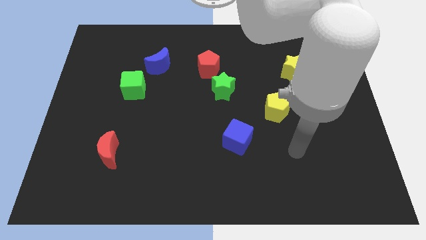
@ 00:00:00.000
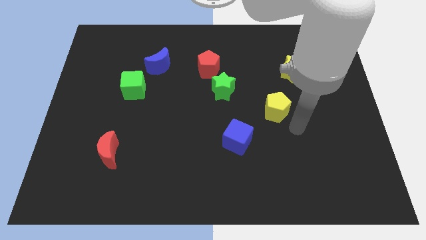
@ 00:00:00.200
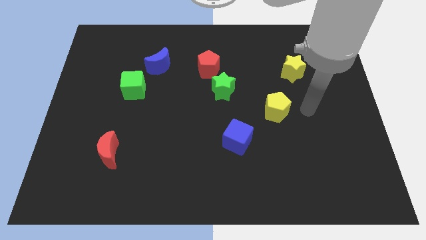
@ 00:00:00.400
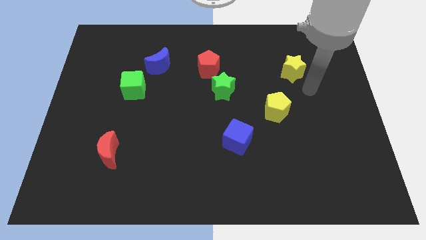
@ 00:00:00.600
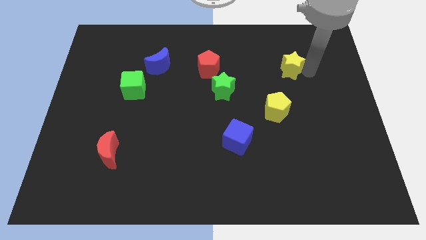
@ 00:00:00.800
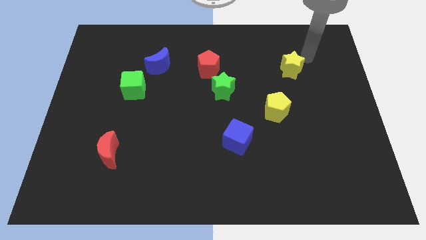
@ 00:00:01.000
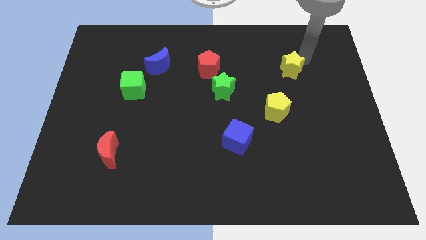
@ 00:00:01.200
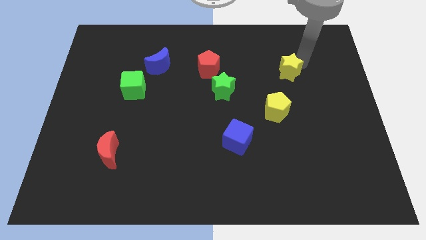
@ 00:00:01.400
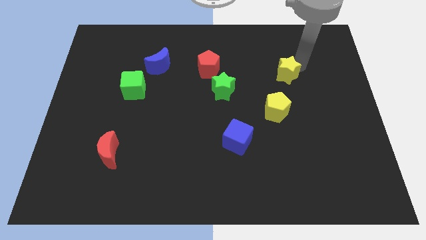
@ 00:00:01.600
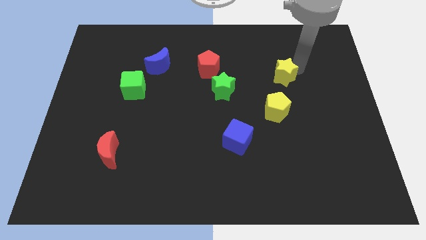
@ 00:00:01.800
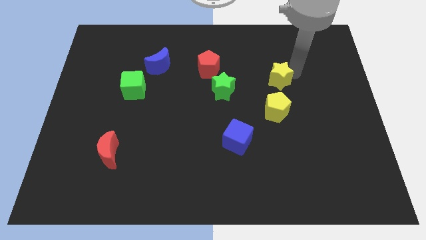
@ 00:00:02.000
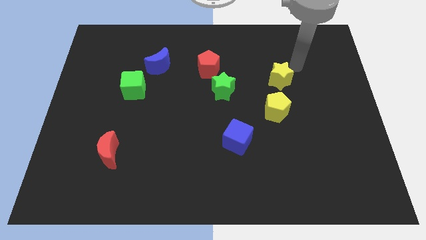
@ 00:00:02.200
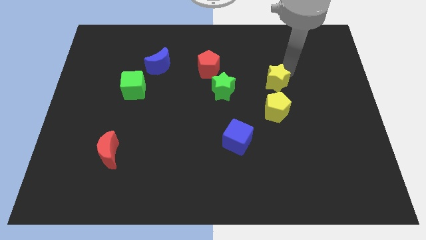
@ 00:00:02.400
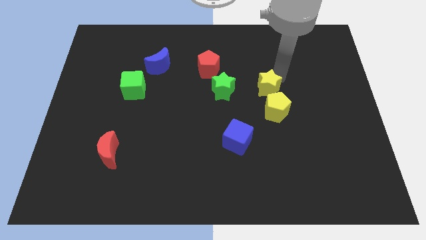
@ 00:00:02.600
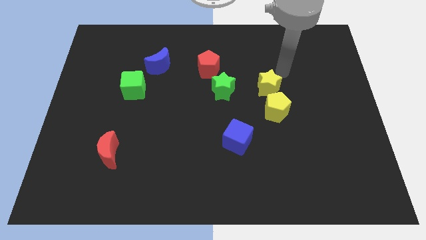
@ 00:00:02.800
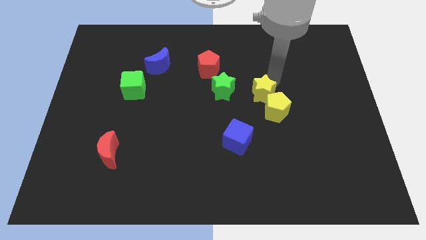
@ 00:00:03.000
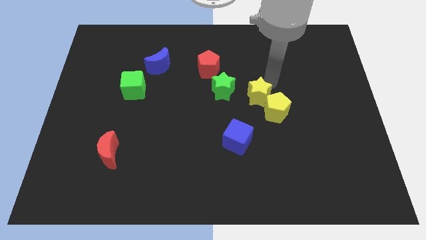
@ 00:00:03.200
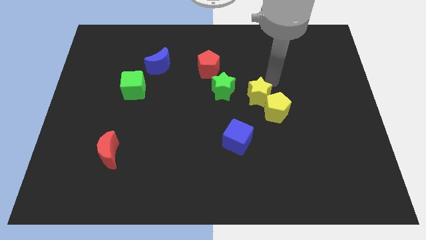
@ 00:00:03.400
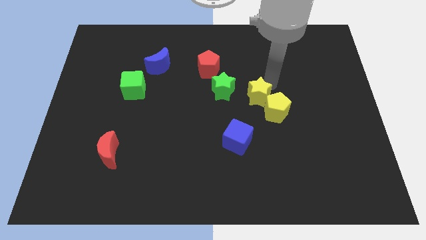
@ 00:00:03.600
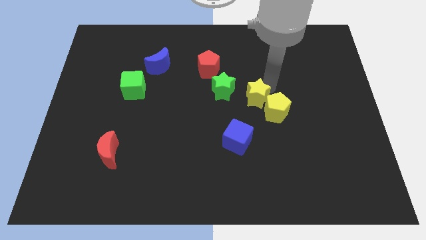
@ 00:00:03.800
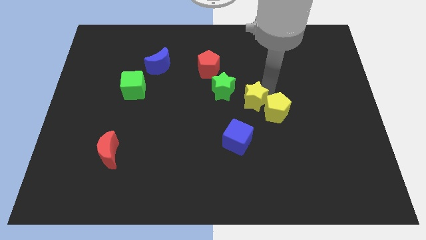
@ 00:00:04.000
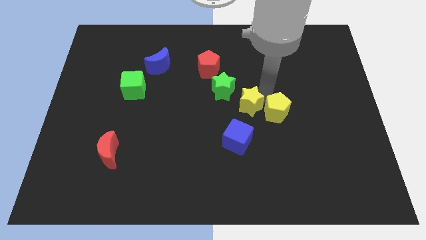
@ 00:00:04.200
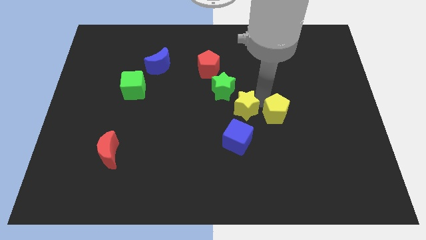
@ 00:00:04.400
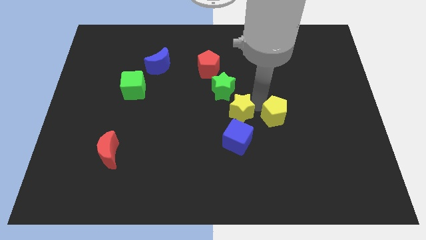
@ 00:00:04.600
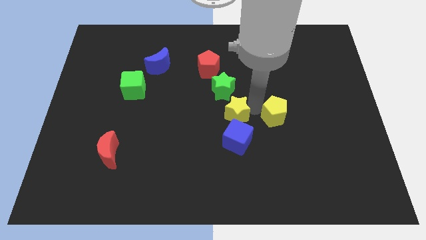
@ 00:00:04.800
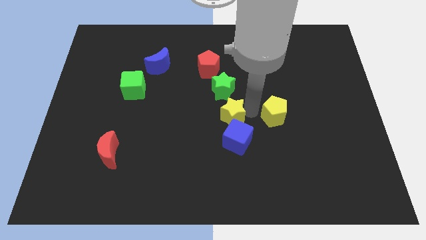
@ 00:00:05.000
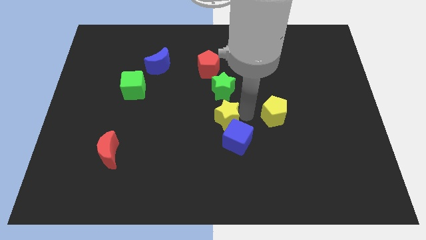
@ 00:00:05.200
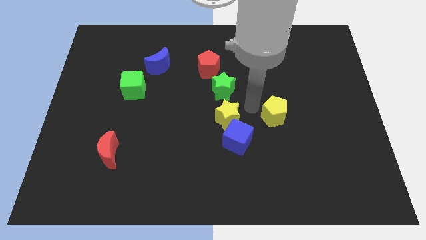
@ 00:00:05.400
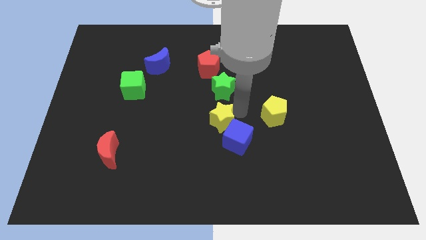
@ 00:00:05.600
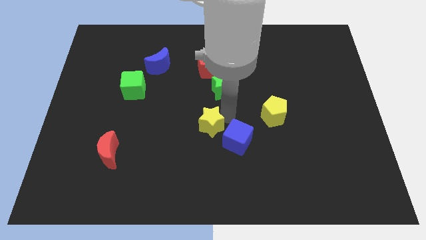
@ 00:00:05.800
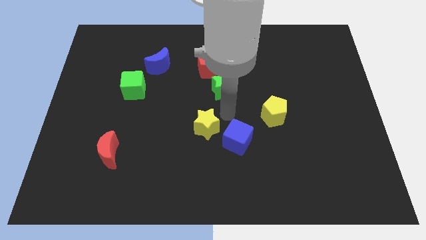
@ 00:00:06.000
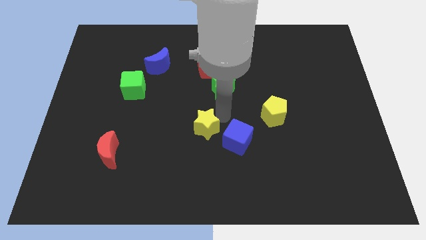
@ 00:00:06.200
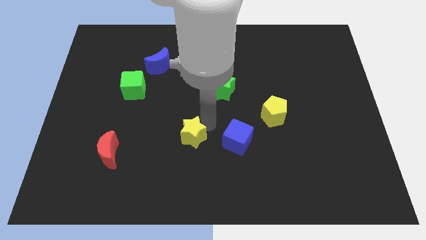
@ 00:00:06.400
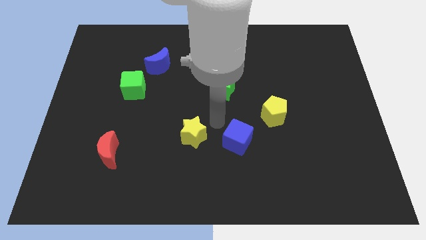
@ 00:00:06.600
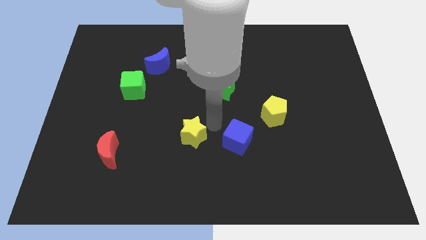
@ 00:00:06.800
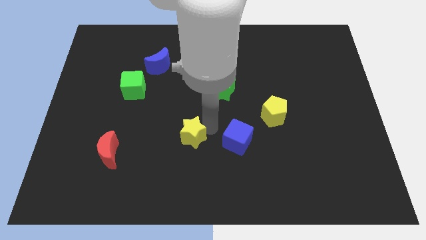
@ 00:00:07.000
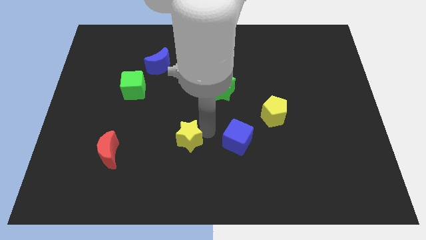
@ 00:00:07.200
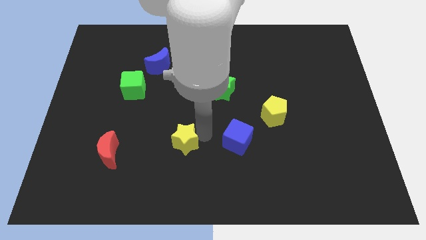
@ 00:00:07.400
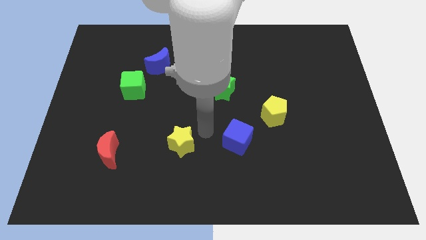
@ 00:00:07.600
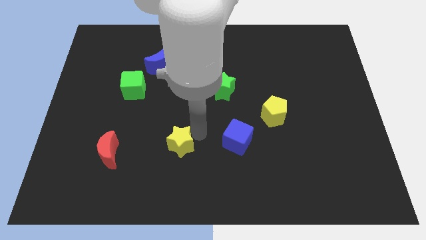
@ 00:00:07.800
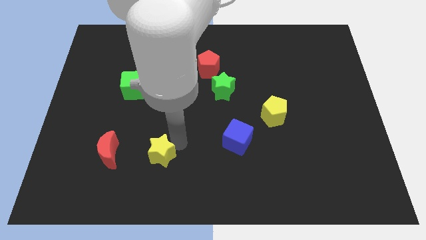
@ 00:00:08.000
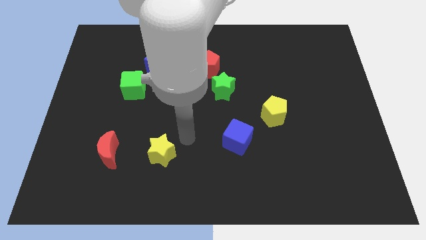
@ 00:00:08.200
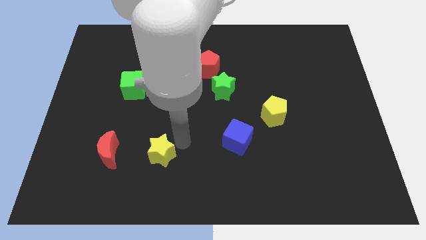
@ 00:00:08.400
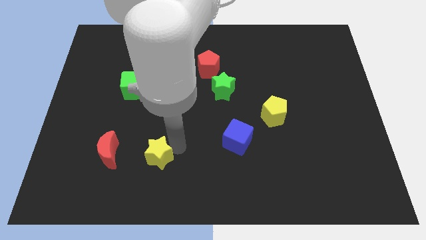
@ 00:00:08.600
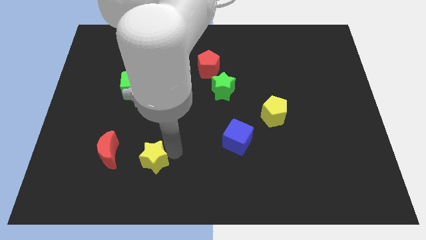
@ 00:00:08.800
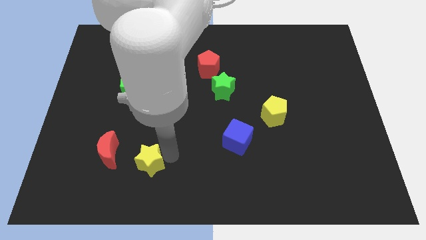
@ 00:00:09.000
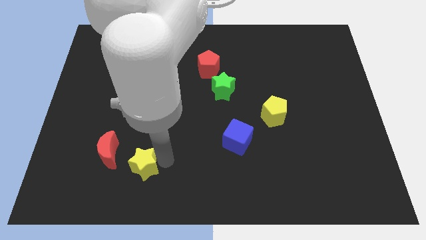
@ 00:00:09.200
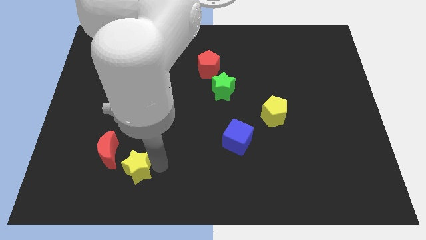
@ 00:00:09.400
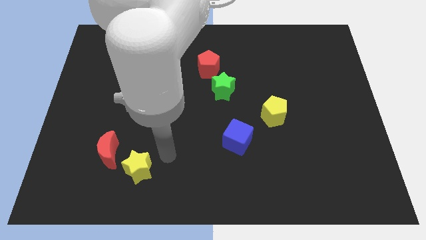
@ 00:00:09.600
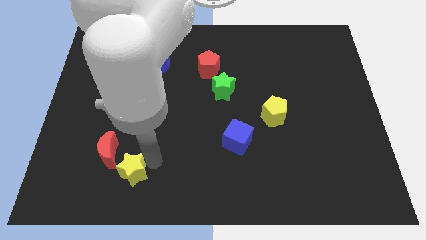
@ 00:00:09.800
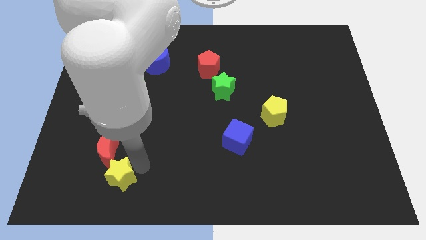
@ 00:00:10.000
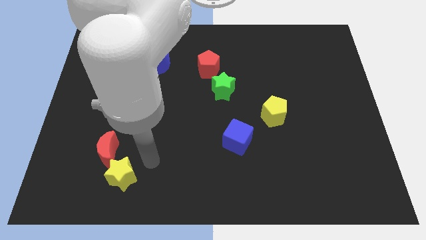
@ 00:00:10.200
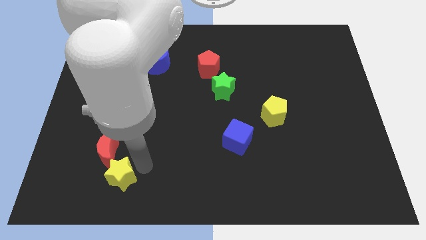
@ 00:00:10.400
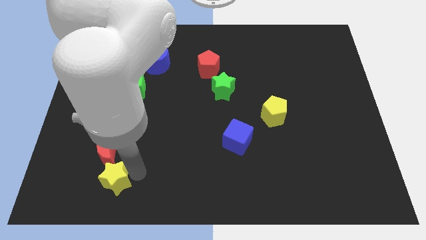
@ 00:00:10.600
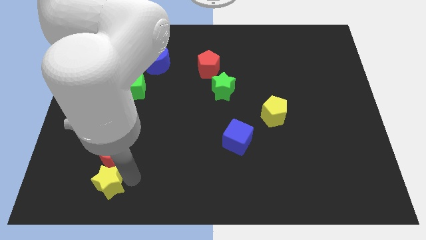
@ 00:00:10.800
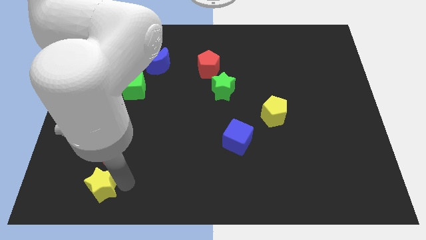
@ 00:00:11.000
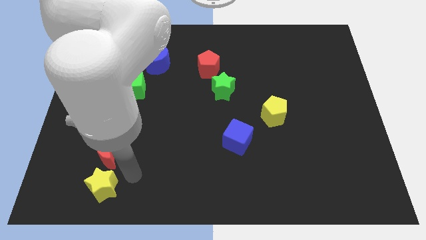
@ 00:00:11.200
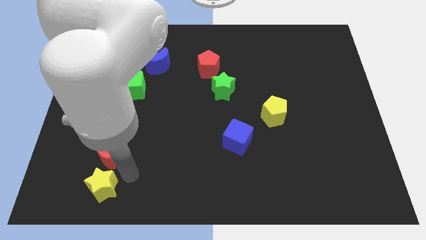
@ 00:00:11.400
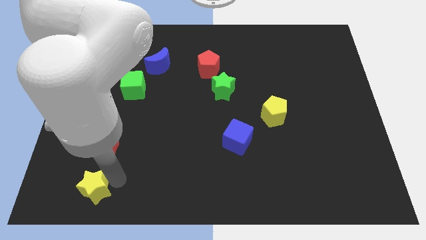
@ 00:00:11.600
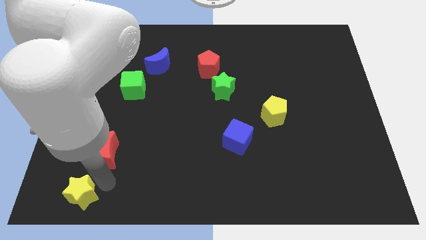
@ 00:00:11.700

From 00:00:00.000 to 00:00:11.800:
slide the yellow star to the lower left corner
